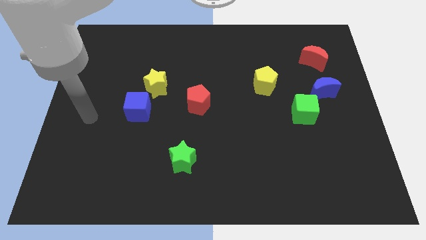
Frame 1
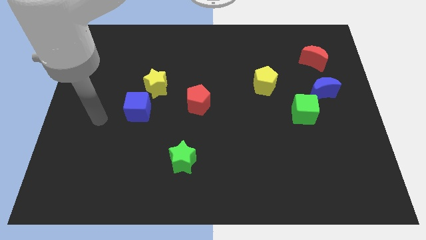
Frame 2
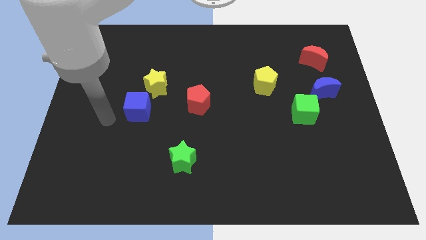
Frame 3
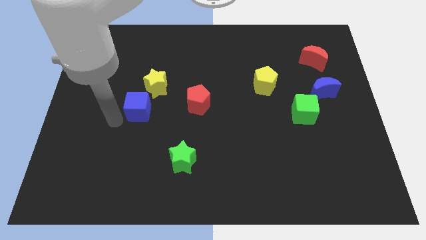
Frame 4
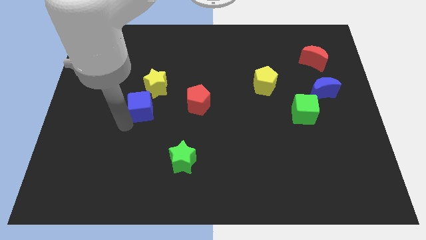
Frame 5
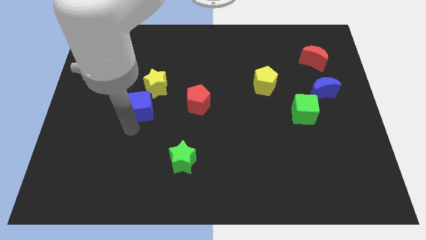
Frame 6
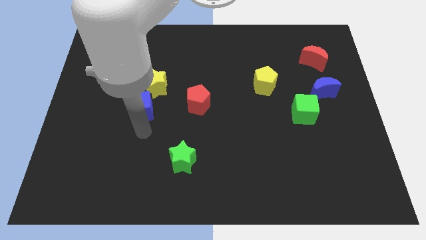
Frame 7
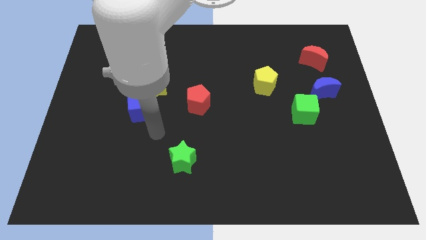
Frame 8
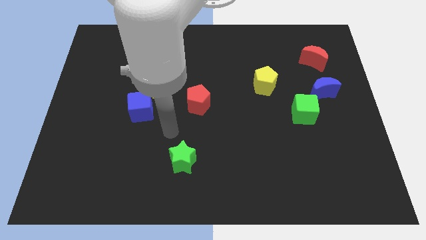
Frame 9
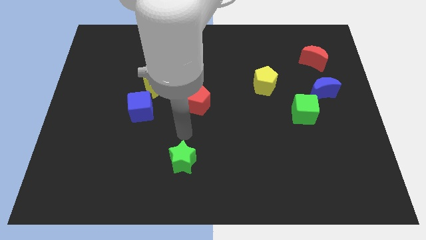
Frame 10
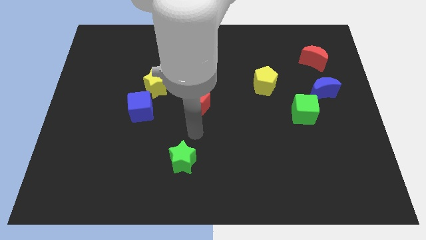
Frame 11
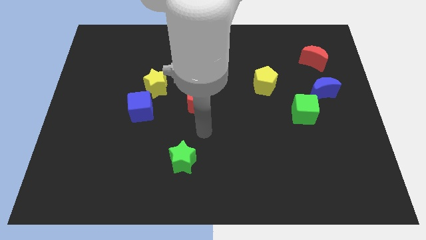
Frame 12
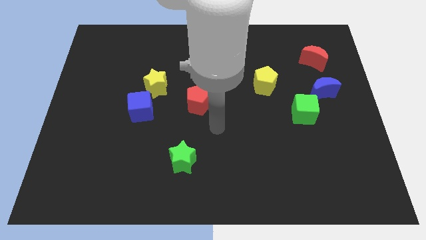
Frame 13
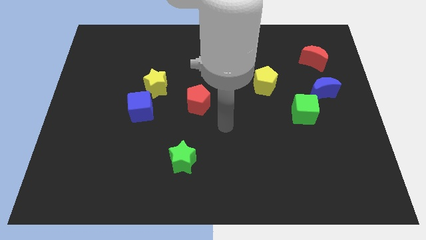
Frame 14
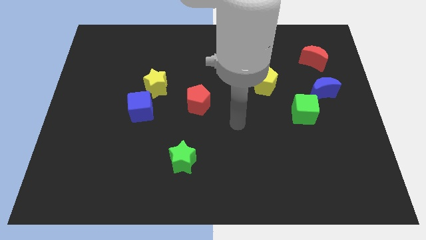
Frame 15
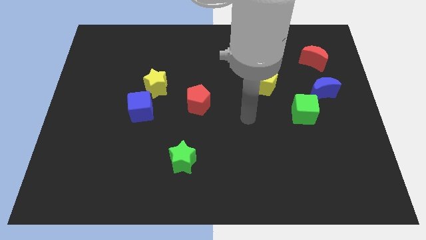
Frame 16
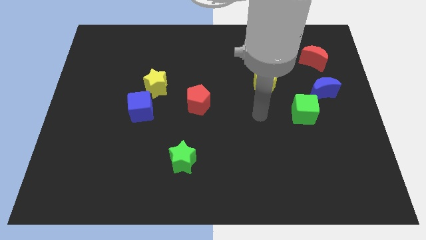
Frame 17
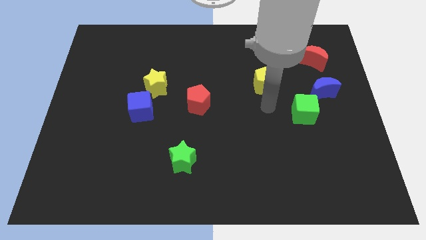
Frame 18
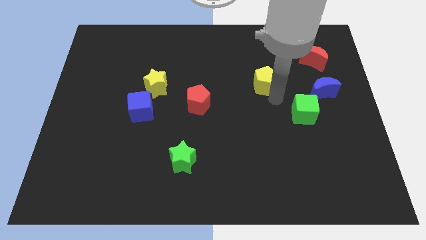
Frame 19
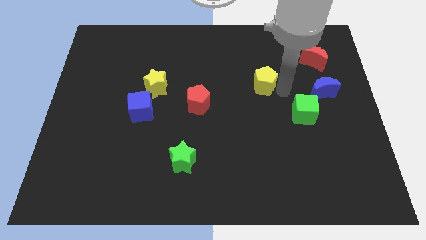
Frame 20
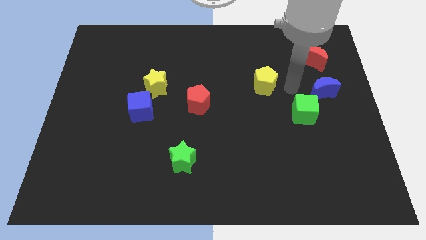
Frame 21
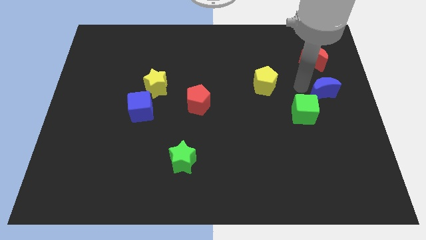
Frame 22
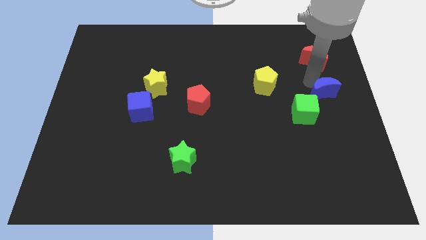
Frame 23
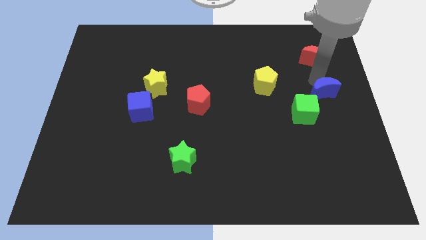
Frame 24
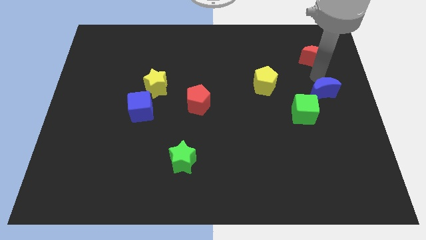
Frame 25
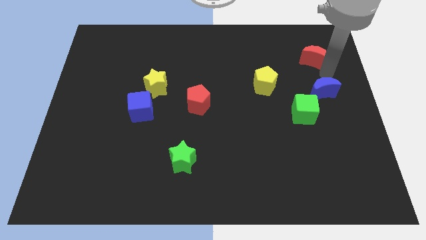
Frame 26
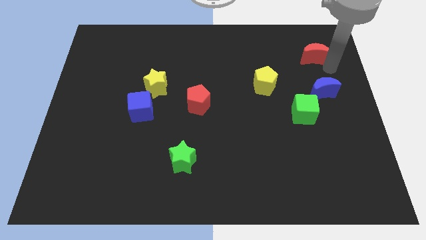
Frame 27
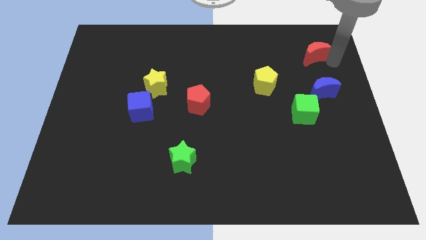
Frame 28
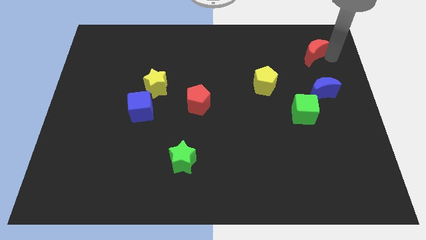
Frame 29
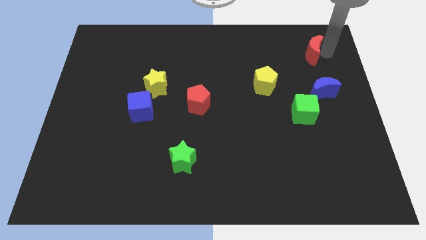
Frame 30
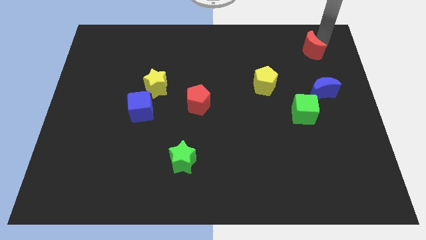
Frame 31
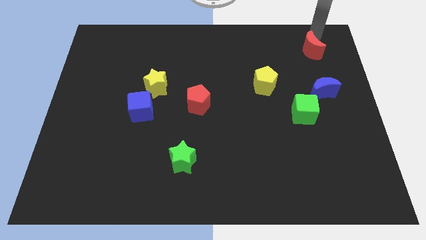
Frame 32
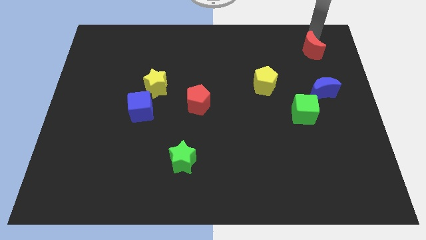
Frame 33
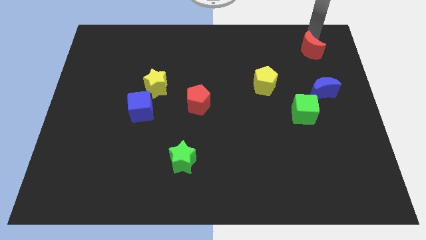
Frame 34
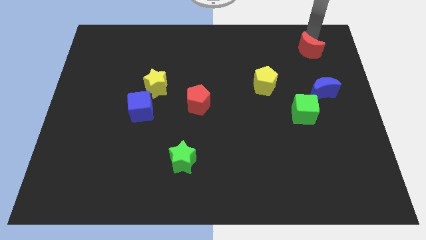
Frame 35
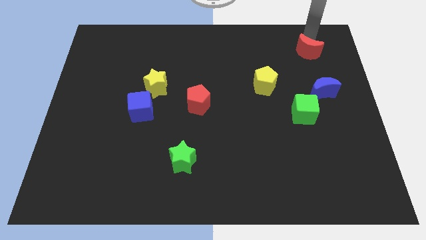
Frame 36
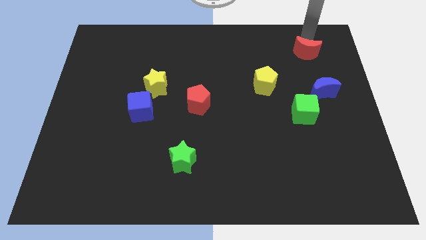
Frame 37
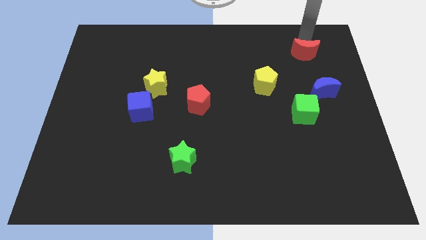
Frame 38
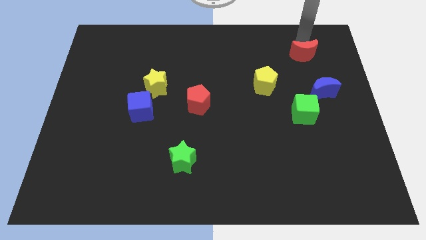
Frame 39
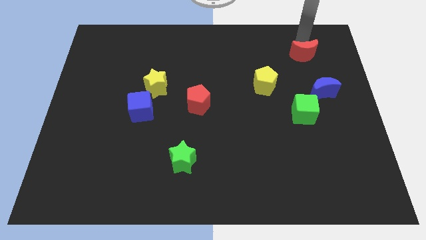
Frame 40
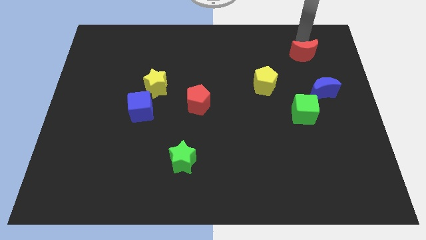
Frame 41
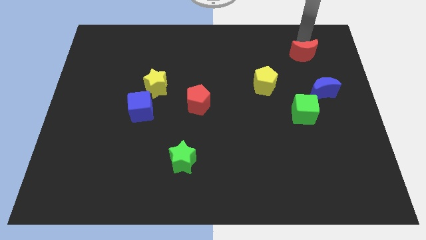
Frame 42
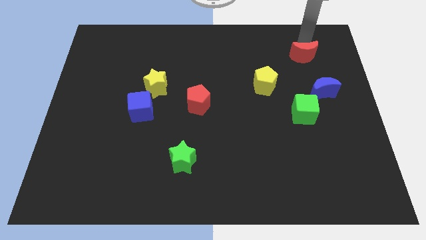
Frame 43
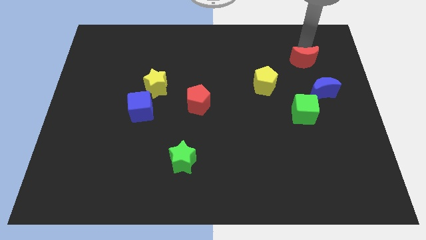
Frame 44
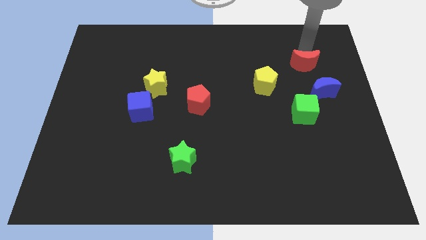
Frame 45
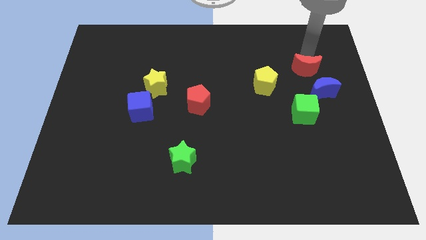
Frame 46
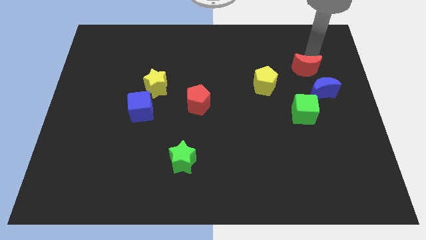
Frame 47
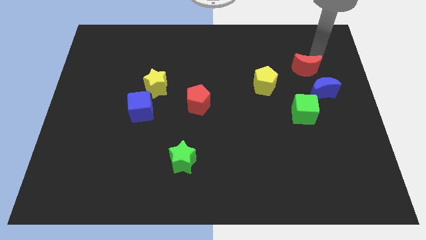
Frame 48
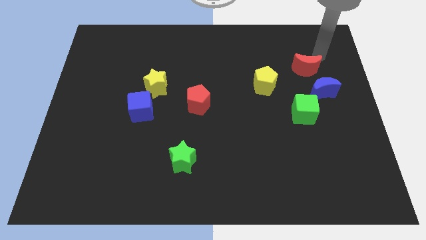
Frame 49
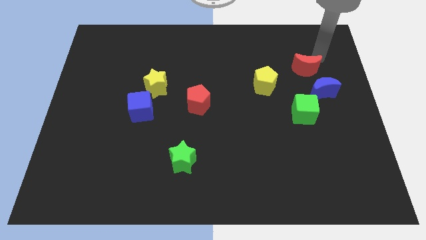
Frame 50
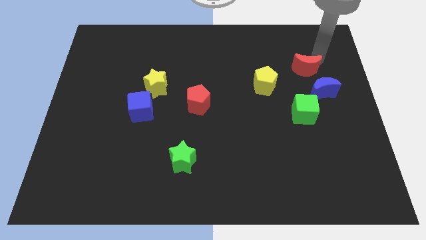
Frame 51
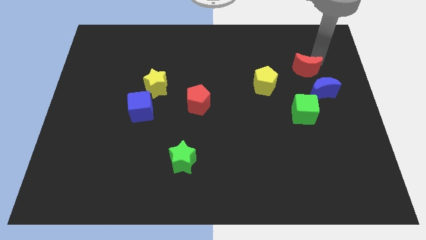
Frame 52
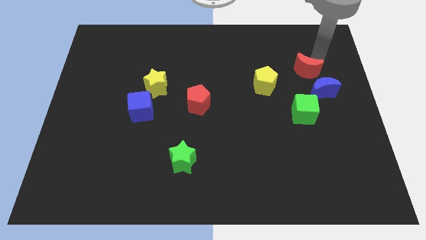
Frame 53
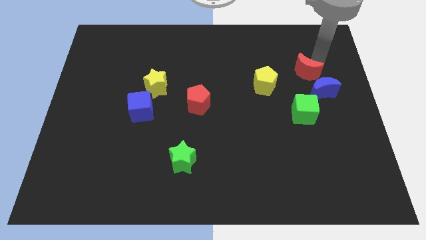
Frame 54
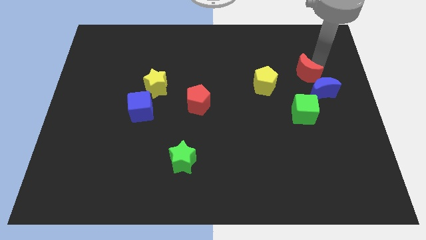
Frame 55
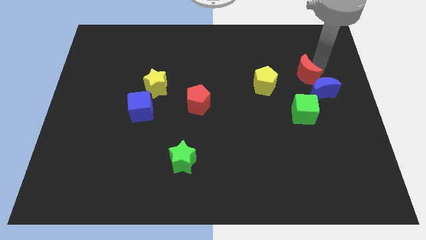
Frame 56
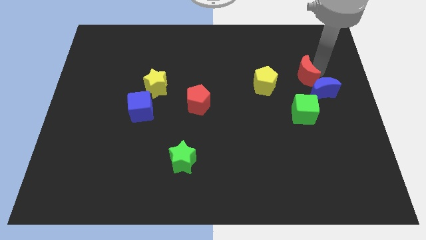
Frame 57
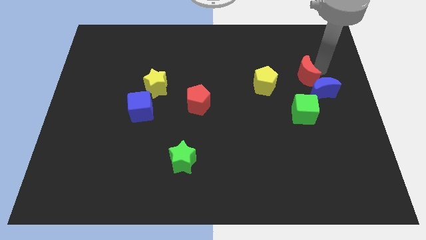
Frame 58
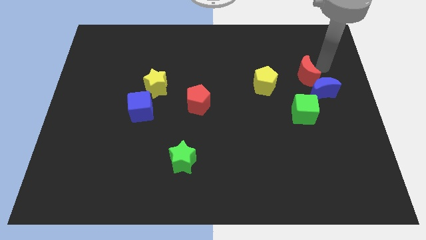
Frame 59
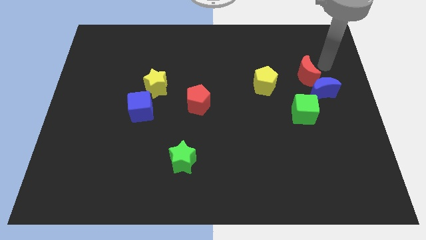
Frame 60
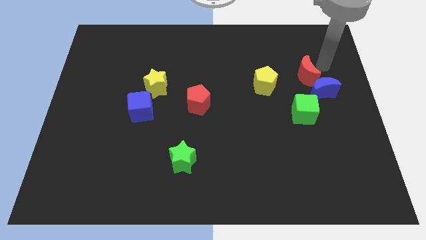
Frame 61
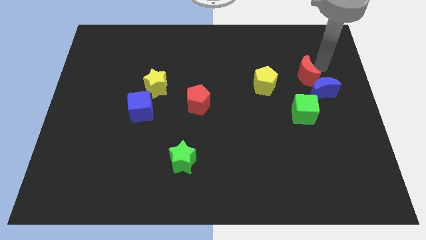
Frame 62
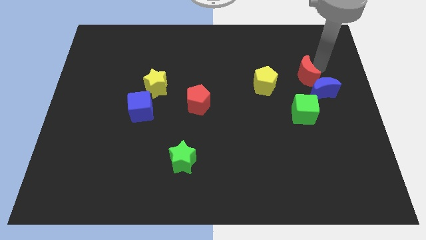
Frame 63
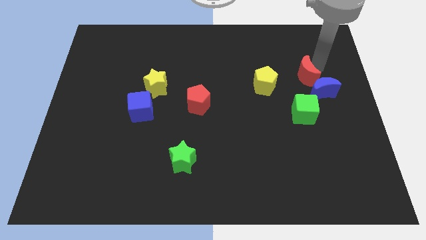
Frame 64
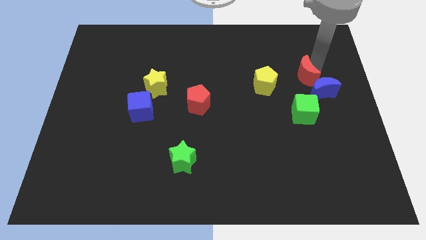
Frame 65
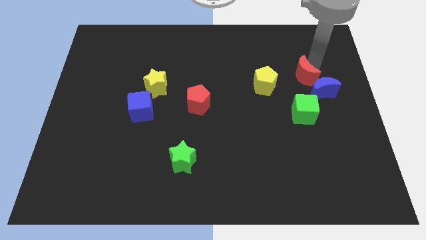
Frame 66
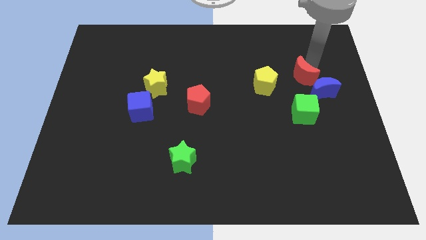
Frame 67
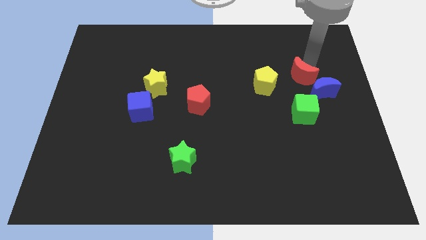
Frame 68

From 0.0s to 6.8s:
push the red moon down and then left somewhat

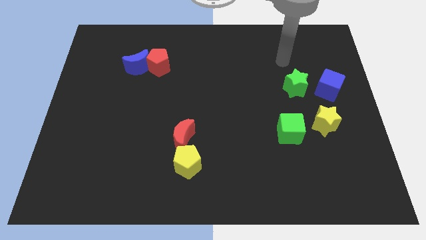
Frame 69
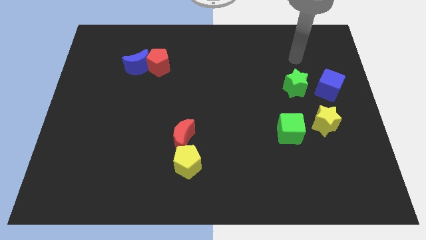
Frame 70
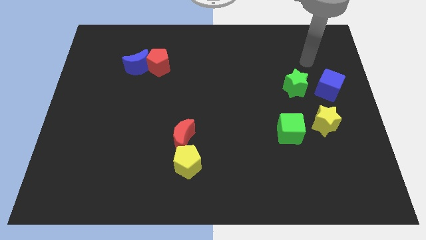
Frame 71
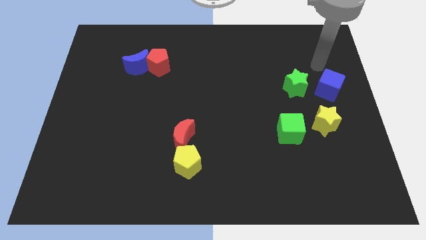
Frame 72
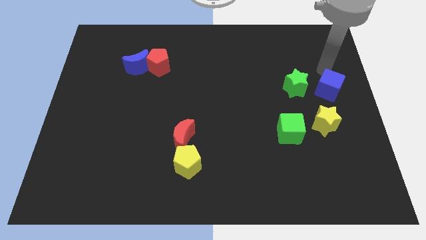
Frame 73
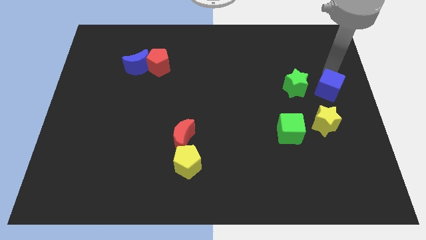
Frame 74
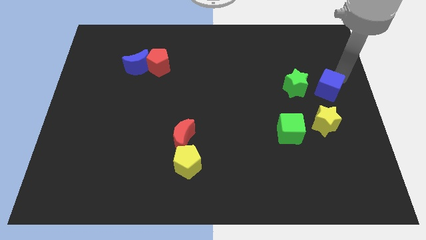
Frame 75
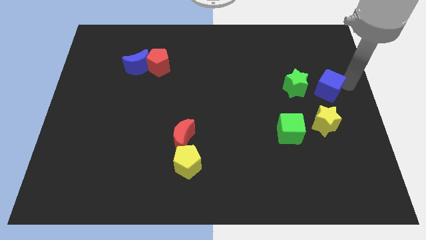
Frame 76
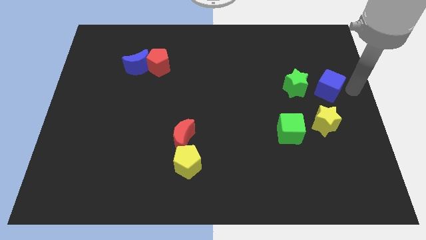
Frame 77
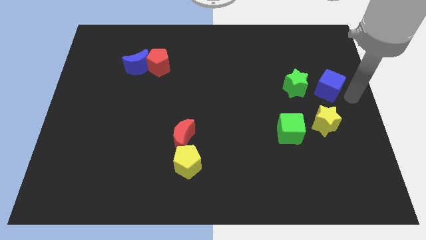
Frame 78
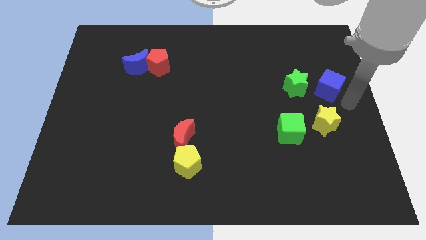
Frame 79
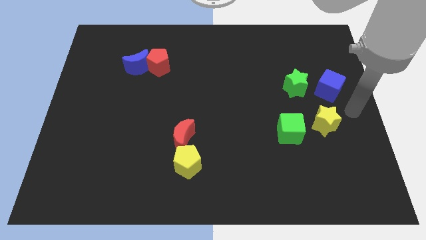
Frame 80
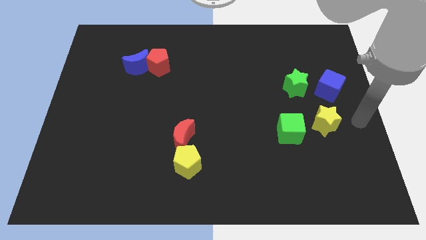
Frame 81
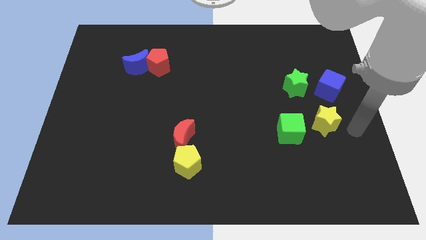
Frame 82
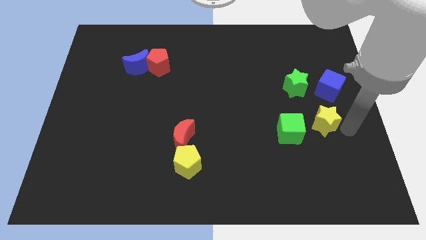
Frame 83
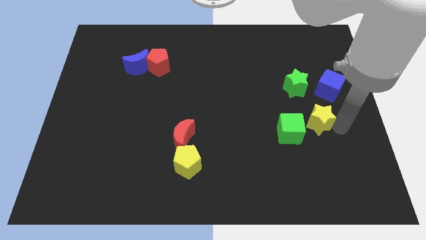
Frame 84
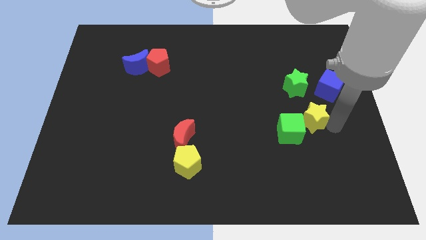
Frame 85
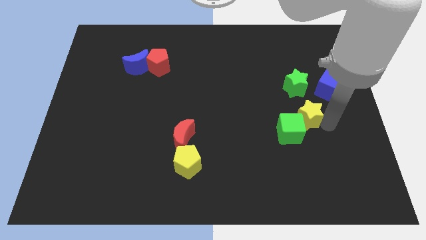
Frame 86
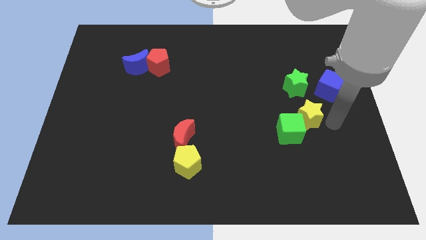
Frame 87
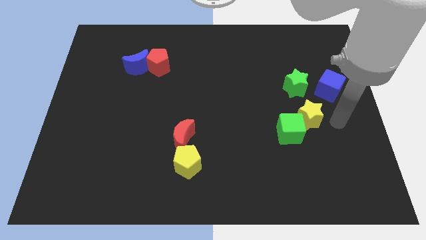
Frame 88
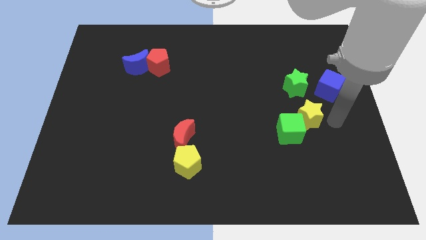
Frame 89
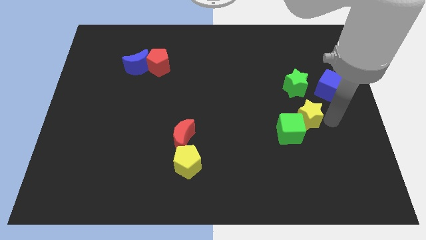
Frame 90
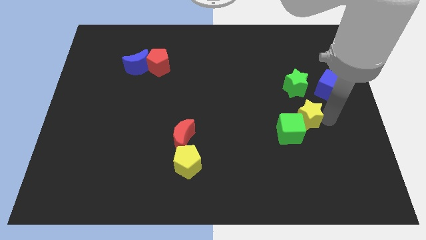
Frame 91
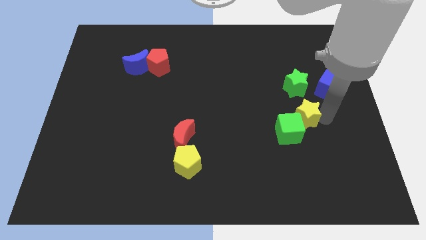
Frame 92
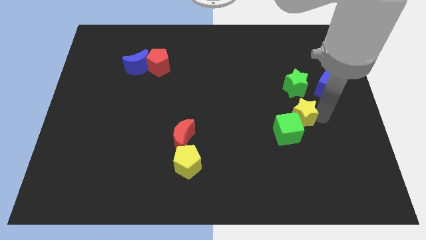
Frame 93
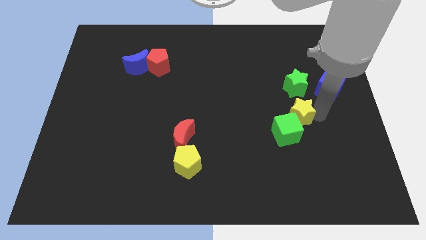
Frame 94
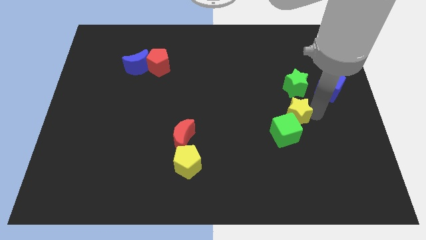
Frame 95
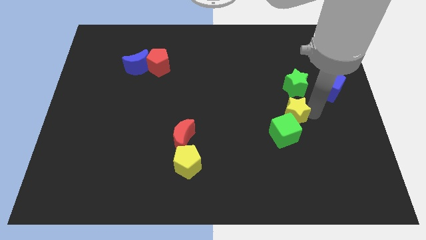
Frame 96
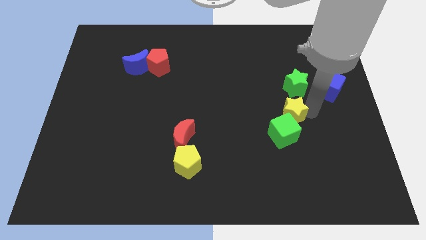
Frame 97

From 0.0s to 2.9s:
slightly move the yellow star to the left
